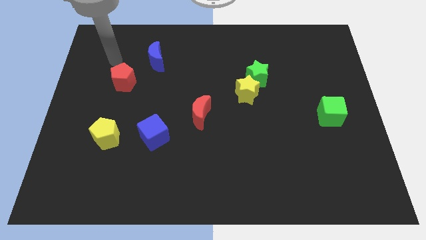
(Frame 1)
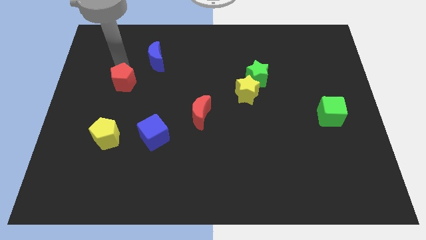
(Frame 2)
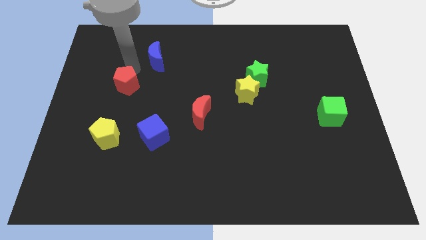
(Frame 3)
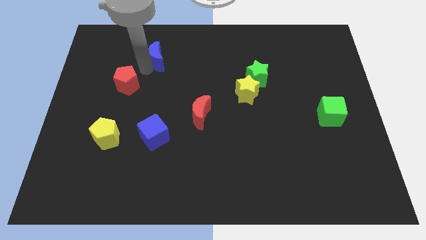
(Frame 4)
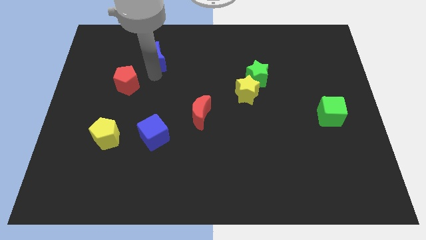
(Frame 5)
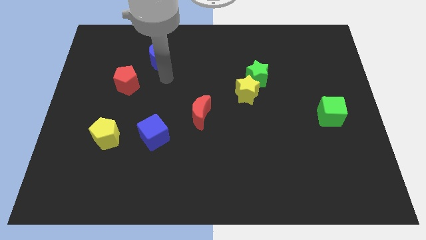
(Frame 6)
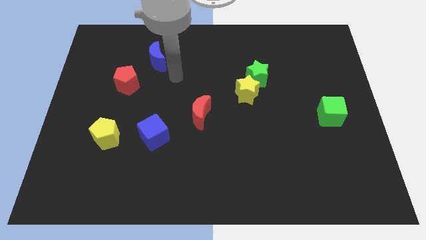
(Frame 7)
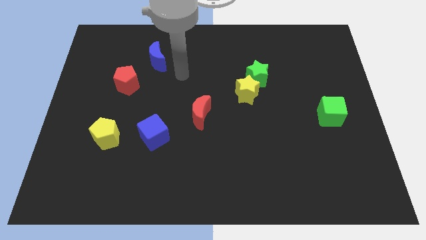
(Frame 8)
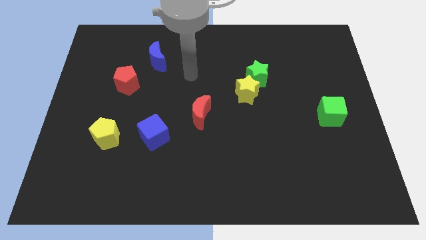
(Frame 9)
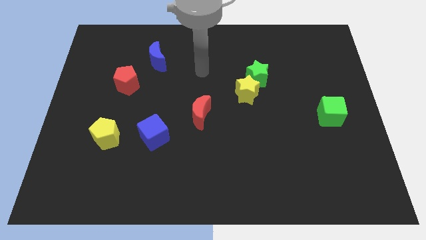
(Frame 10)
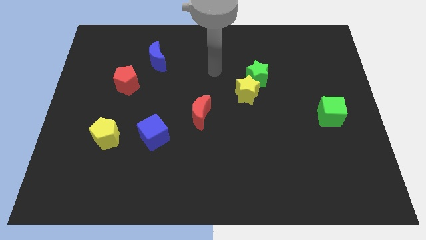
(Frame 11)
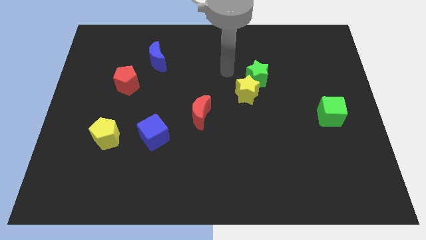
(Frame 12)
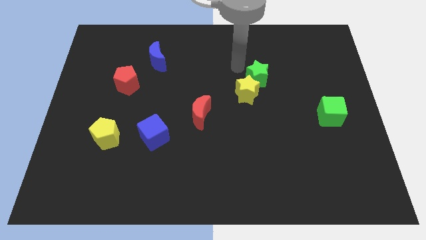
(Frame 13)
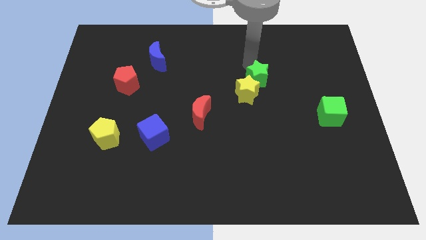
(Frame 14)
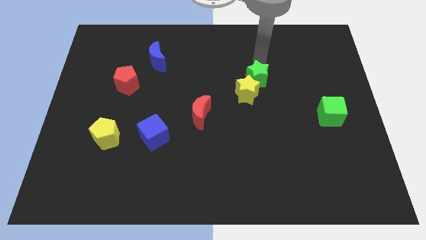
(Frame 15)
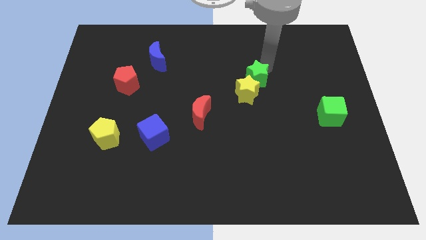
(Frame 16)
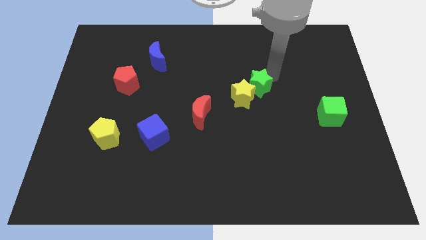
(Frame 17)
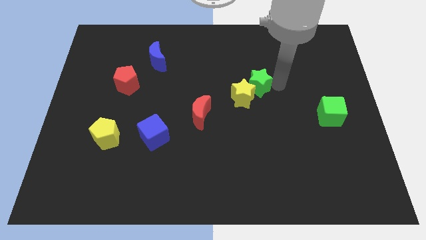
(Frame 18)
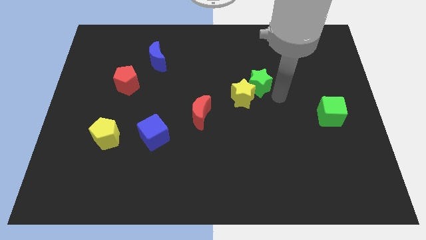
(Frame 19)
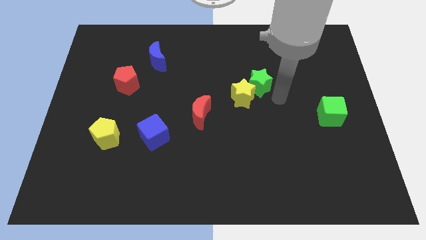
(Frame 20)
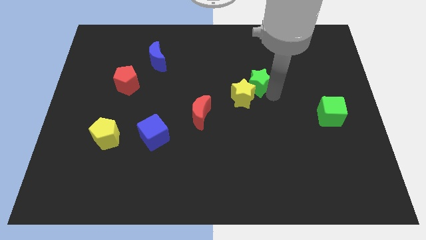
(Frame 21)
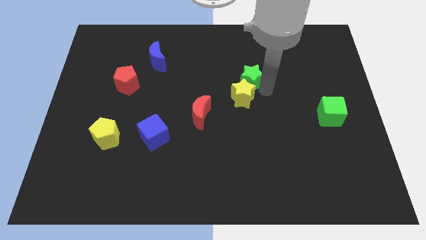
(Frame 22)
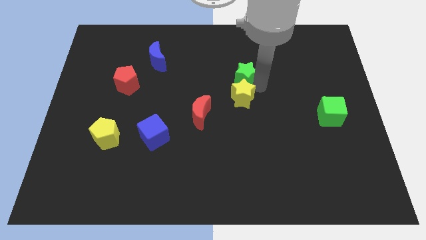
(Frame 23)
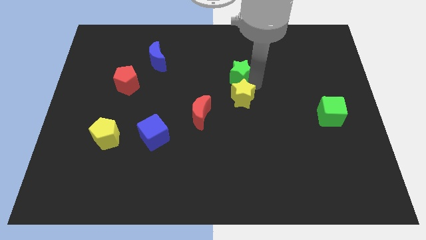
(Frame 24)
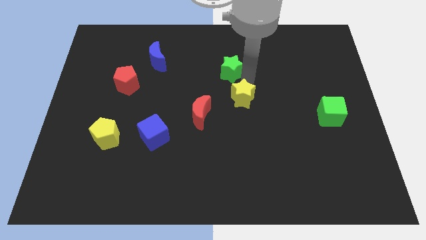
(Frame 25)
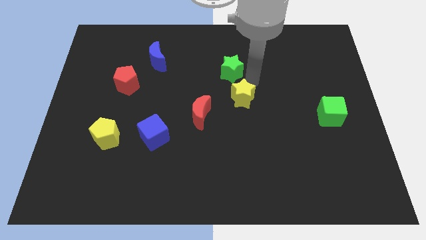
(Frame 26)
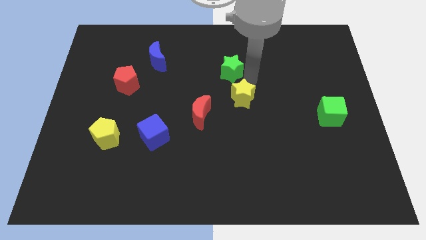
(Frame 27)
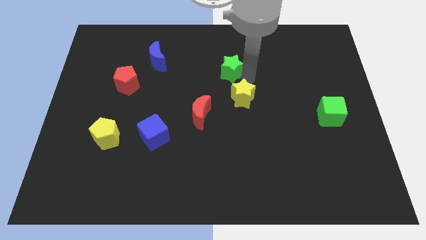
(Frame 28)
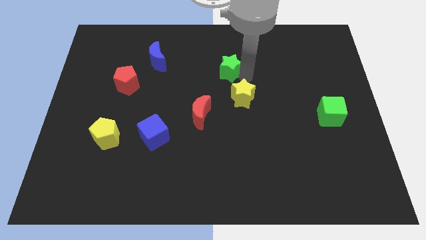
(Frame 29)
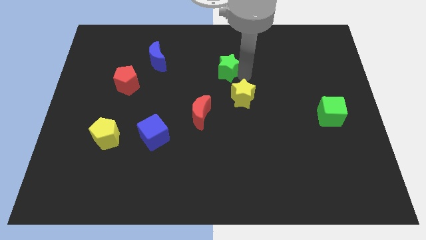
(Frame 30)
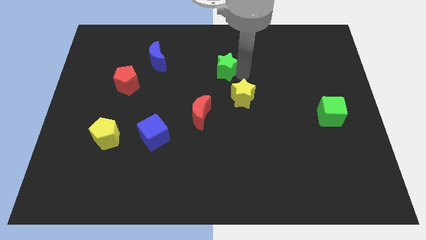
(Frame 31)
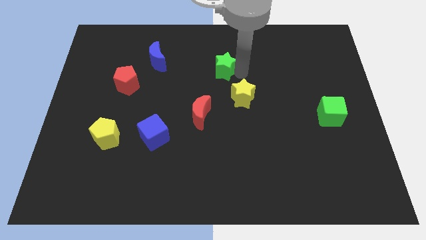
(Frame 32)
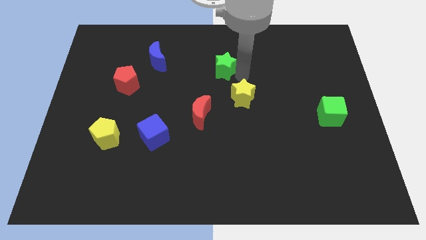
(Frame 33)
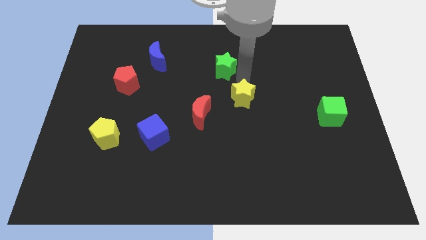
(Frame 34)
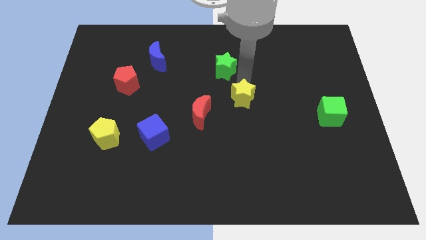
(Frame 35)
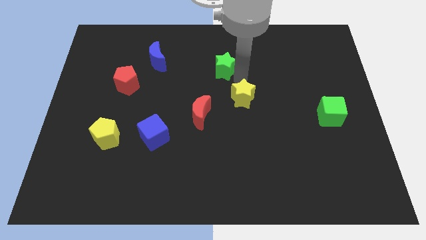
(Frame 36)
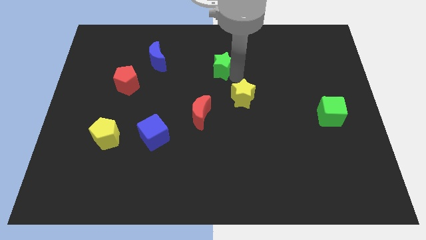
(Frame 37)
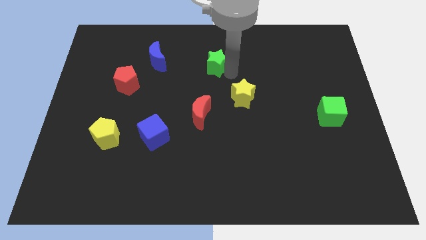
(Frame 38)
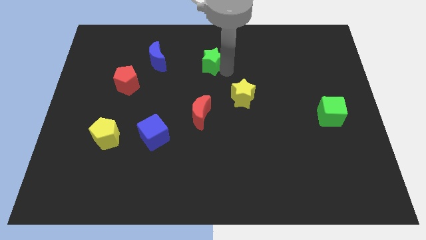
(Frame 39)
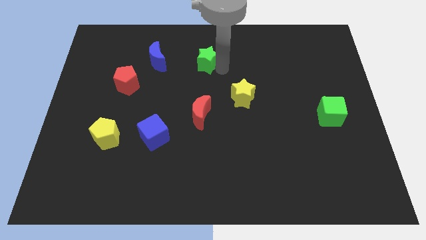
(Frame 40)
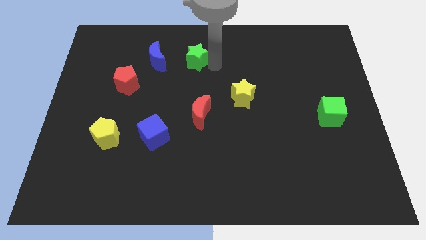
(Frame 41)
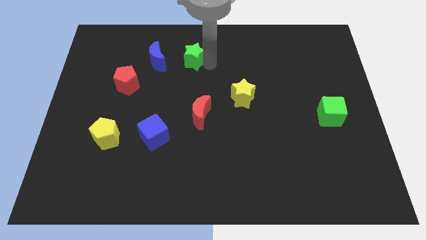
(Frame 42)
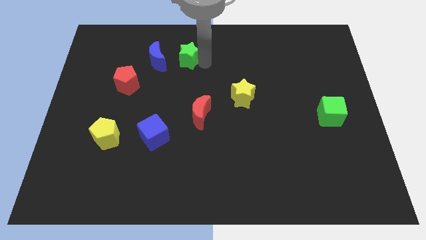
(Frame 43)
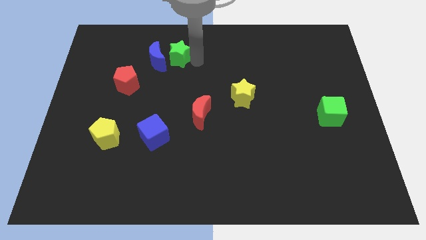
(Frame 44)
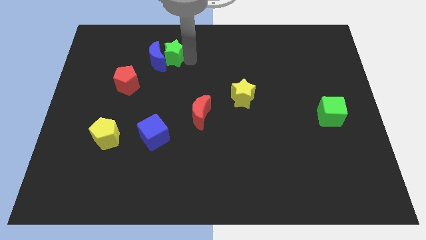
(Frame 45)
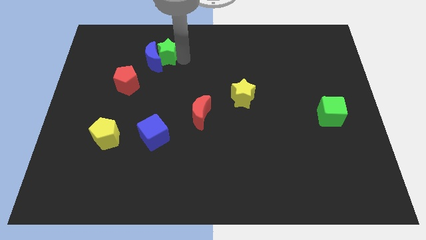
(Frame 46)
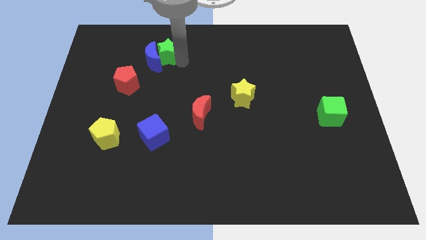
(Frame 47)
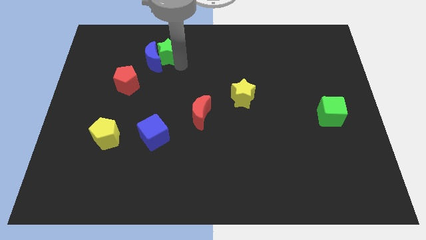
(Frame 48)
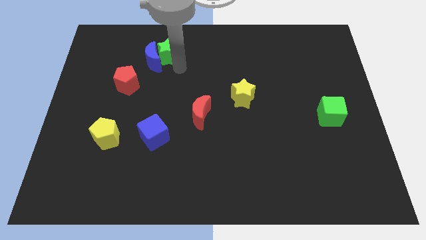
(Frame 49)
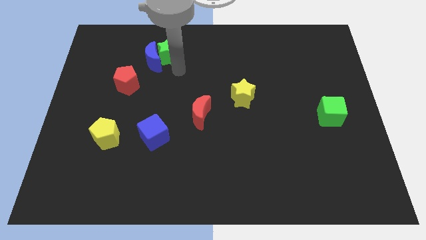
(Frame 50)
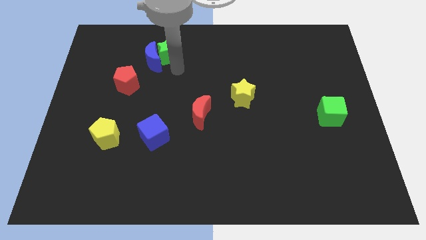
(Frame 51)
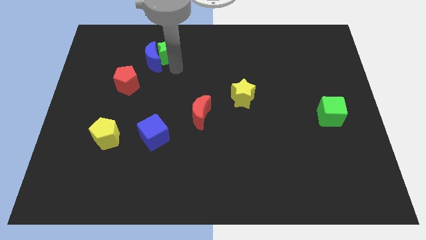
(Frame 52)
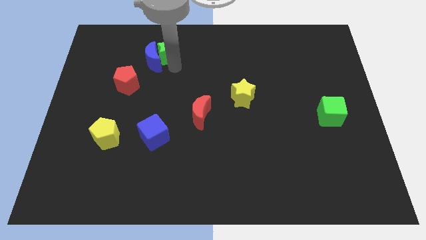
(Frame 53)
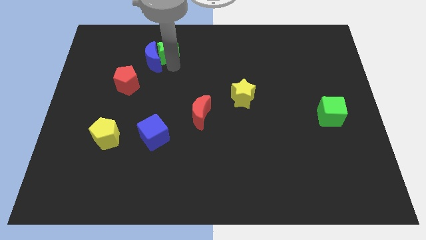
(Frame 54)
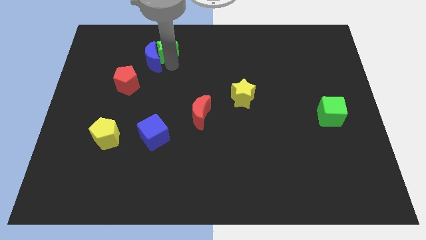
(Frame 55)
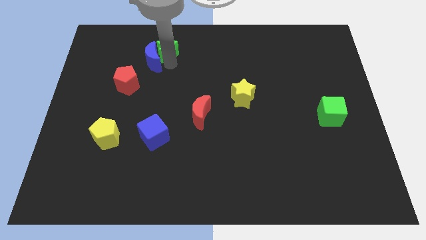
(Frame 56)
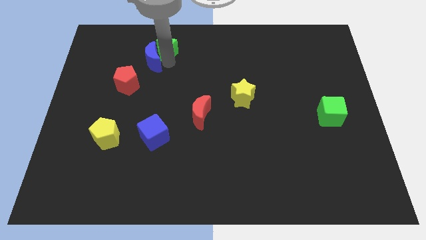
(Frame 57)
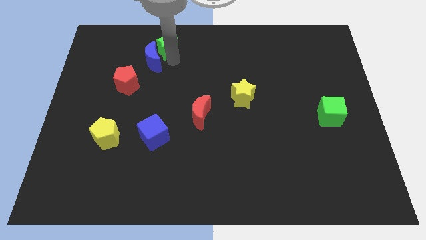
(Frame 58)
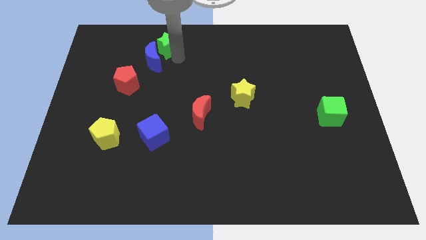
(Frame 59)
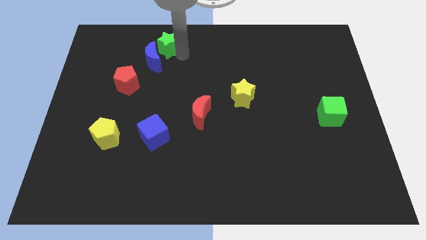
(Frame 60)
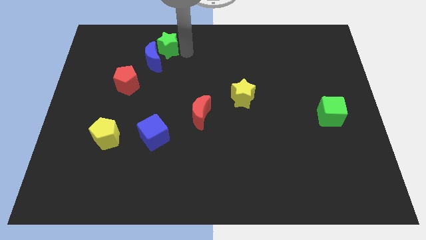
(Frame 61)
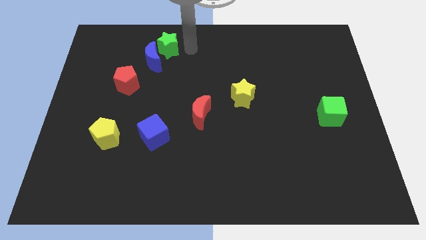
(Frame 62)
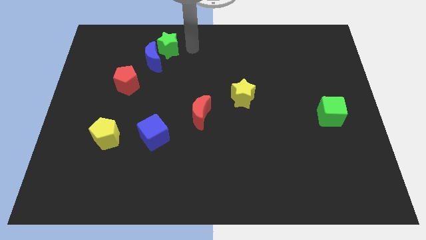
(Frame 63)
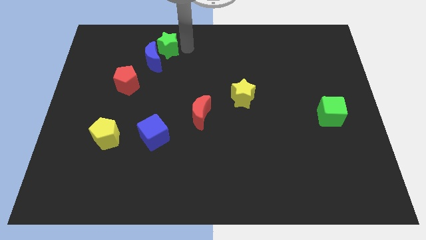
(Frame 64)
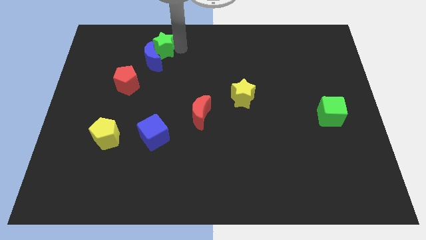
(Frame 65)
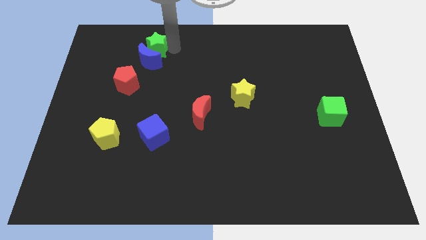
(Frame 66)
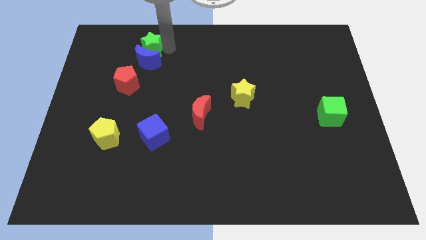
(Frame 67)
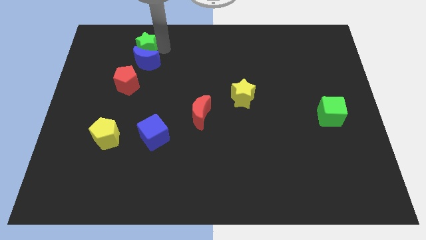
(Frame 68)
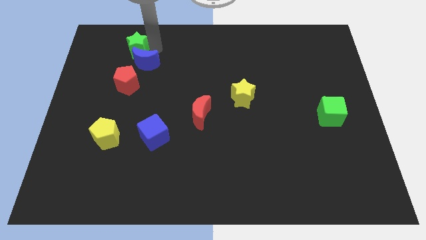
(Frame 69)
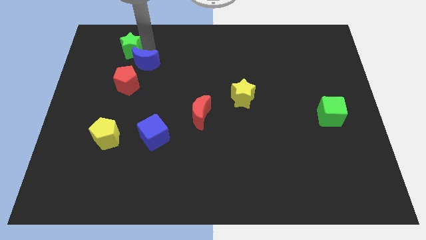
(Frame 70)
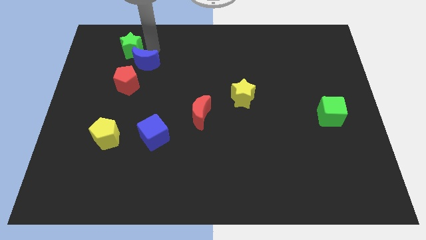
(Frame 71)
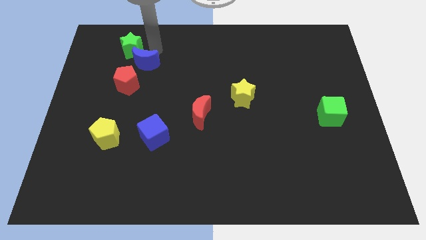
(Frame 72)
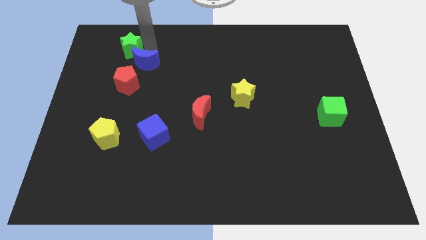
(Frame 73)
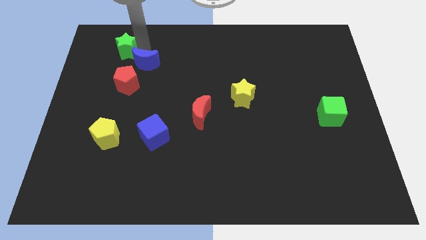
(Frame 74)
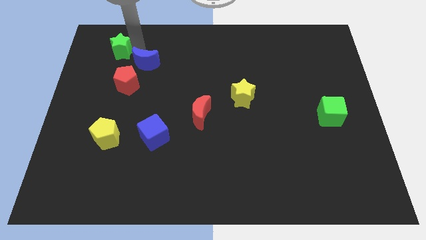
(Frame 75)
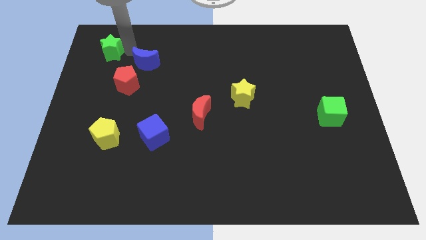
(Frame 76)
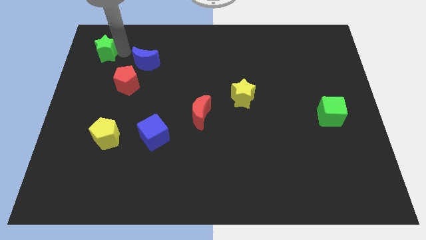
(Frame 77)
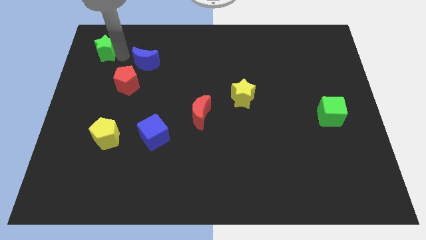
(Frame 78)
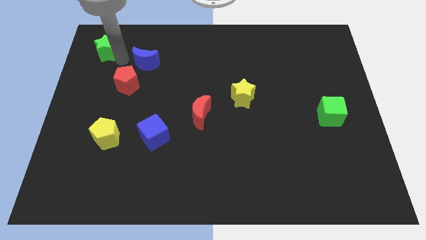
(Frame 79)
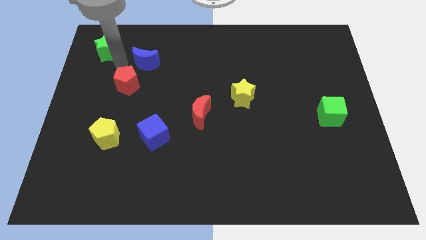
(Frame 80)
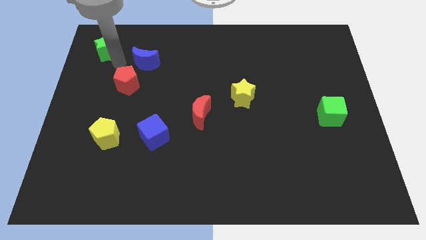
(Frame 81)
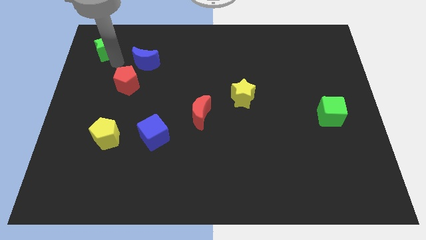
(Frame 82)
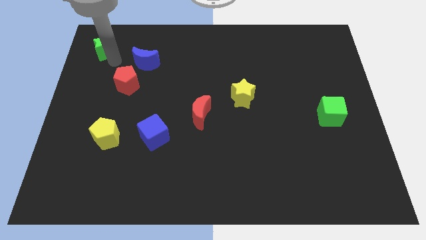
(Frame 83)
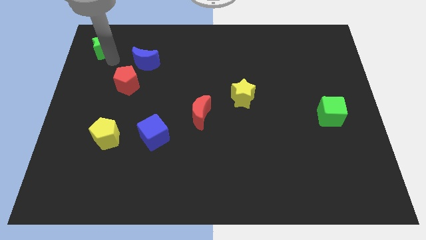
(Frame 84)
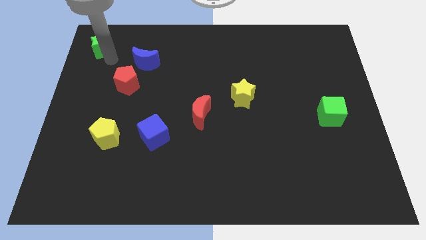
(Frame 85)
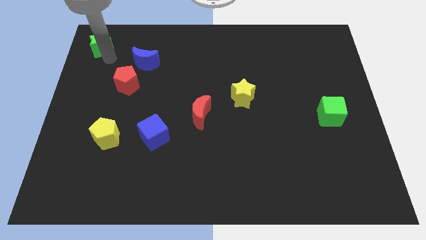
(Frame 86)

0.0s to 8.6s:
put the green star to the upper left corner
